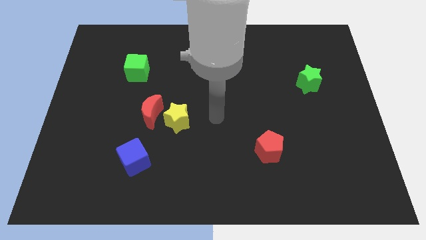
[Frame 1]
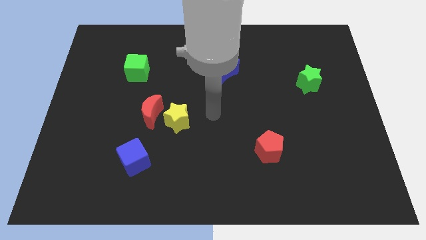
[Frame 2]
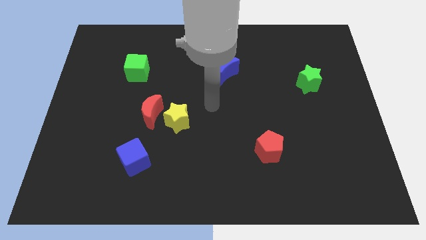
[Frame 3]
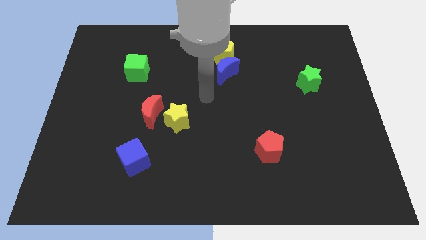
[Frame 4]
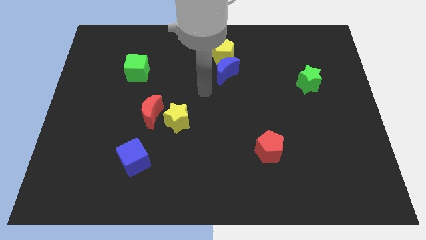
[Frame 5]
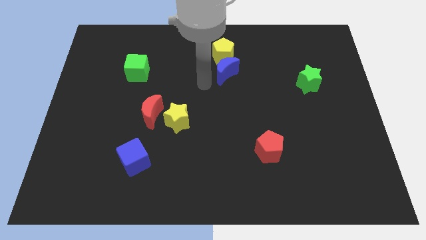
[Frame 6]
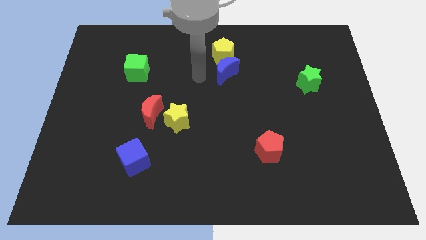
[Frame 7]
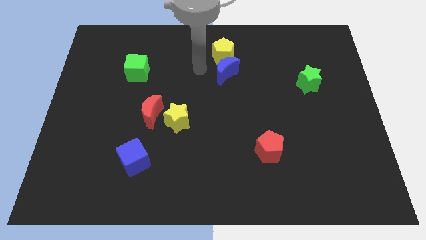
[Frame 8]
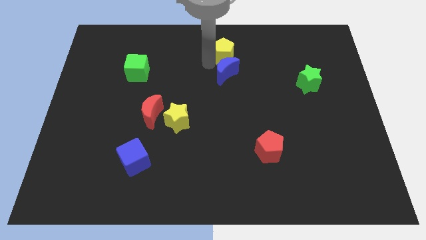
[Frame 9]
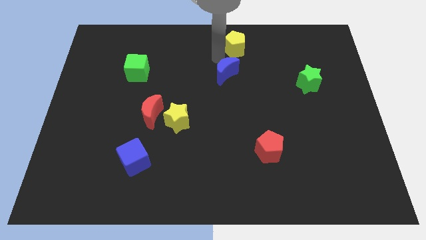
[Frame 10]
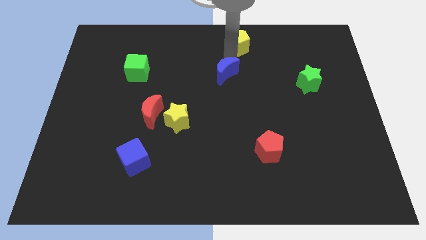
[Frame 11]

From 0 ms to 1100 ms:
separate the blue moon from the yellow pentagon

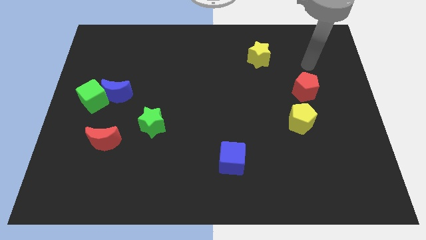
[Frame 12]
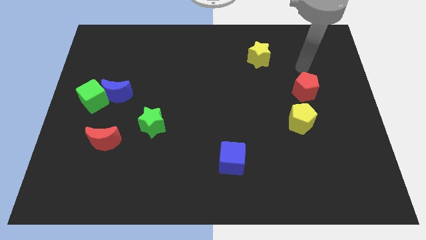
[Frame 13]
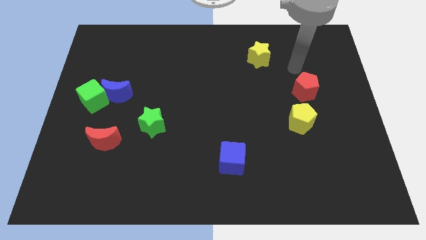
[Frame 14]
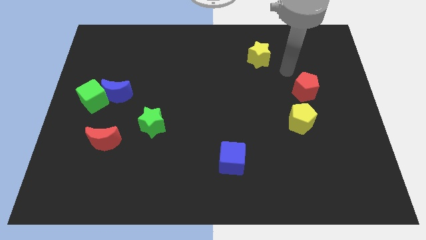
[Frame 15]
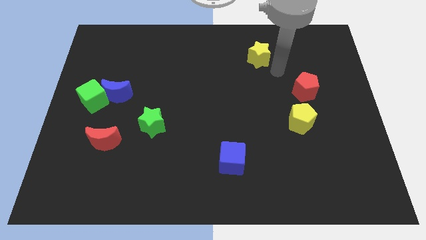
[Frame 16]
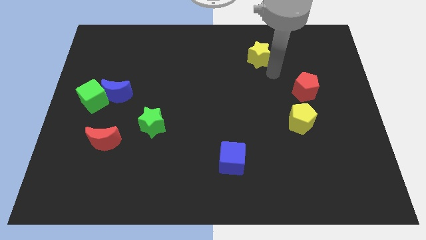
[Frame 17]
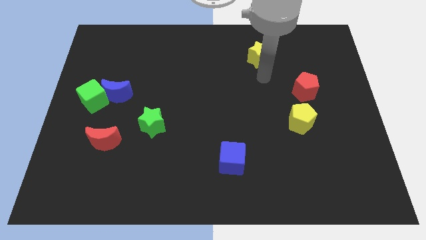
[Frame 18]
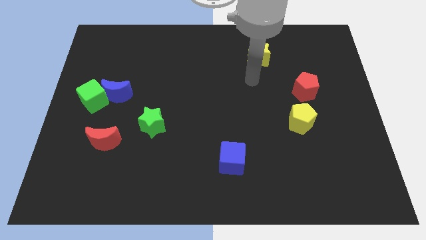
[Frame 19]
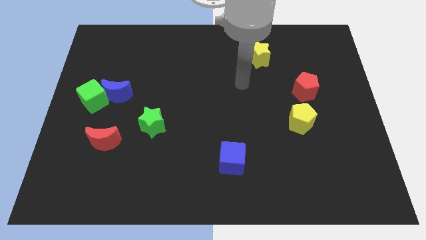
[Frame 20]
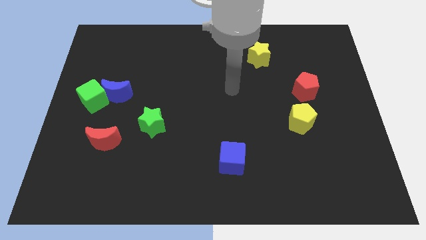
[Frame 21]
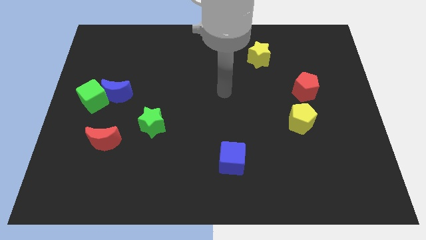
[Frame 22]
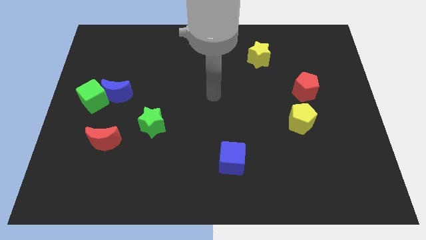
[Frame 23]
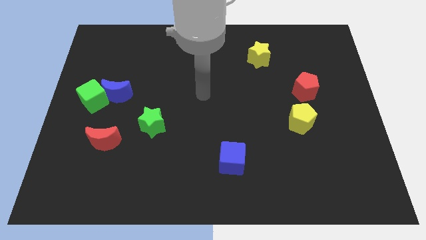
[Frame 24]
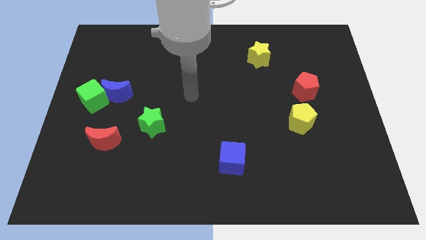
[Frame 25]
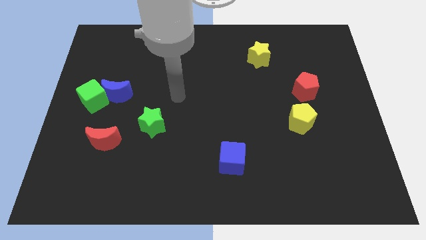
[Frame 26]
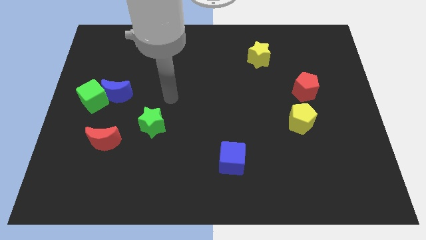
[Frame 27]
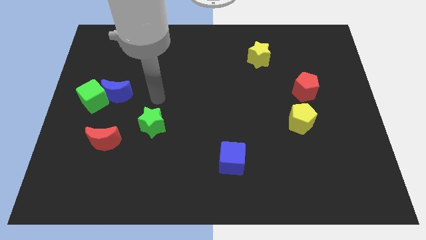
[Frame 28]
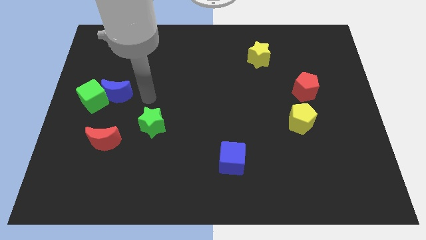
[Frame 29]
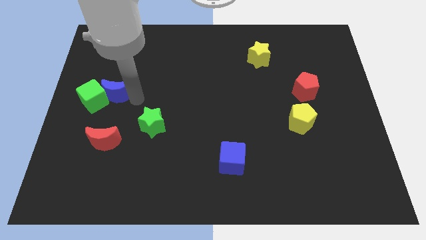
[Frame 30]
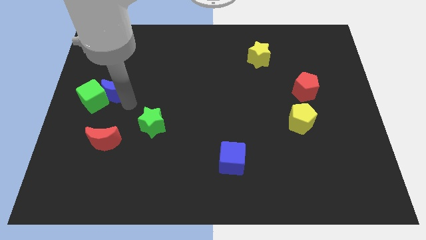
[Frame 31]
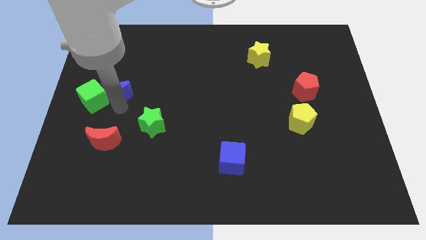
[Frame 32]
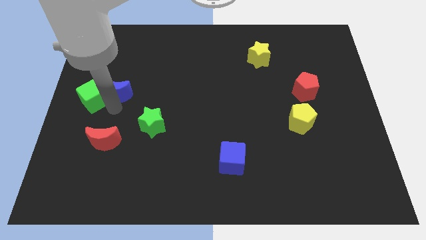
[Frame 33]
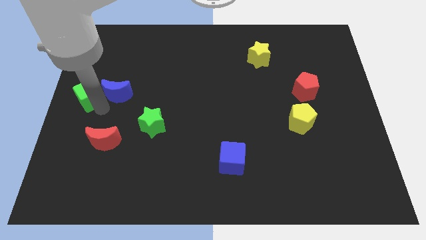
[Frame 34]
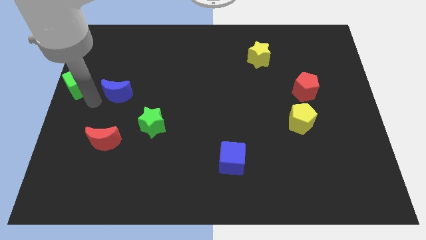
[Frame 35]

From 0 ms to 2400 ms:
pull the blue moon apart from the green cube

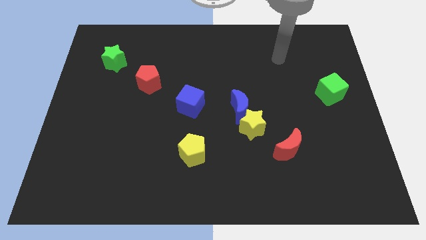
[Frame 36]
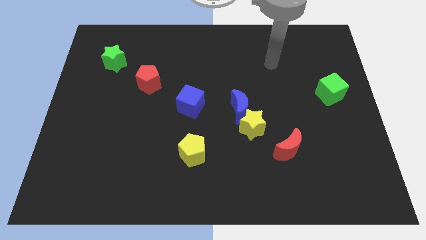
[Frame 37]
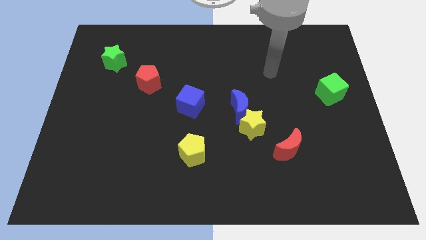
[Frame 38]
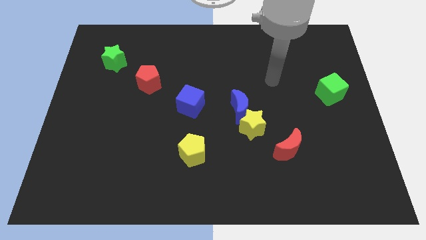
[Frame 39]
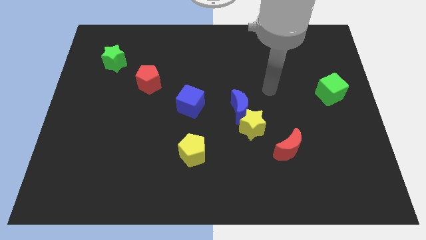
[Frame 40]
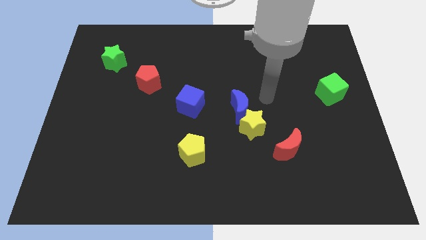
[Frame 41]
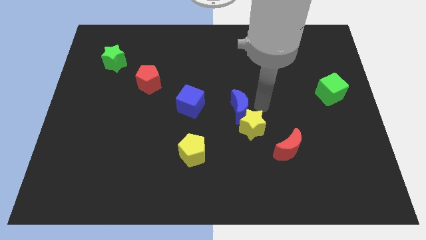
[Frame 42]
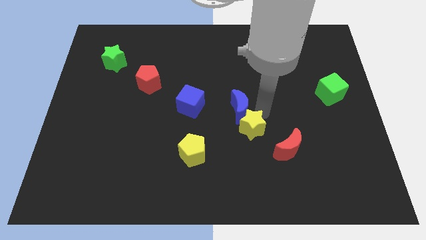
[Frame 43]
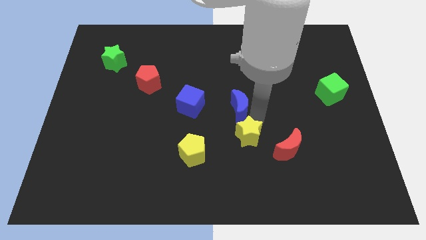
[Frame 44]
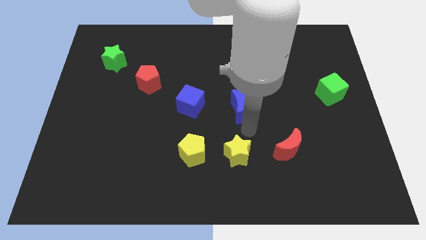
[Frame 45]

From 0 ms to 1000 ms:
move the blue moon away from the yellow star

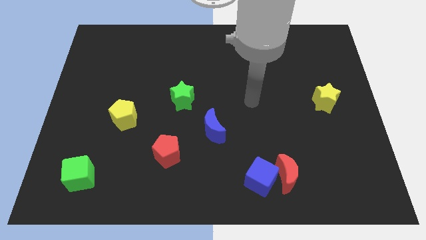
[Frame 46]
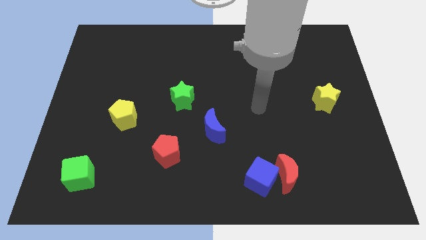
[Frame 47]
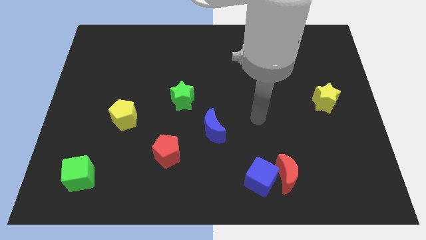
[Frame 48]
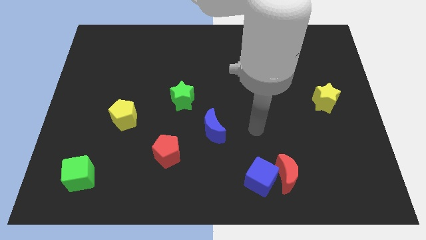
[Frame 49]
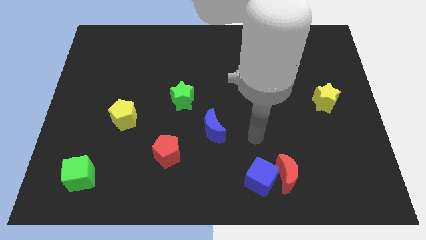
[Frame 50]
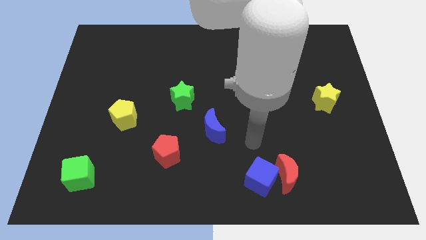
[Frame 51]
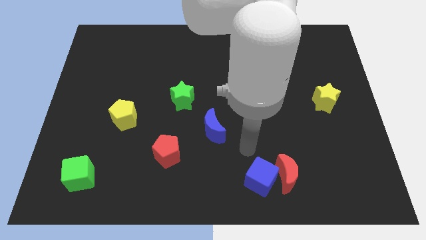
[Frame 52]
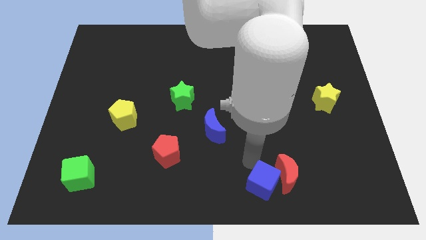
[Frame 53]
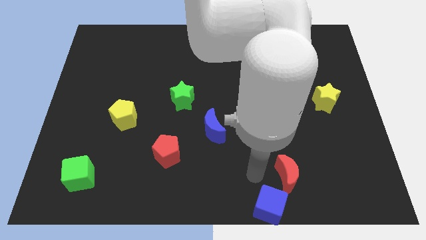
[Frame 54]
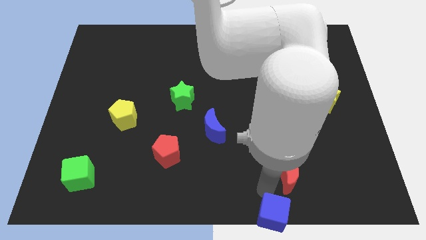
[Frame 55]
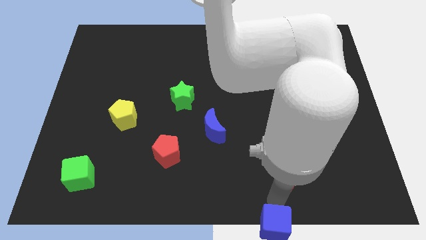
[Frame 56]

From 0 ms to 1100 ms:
pull the red moon apart from the blue cube

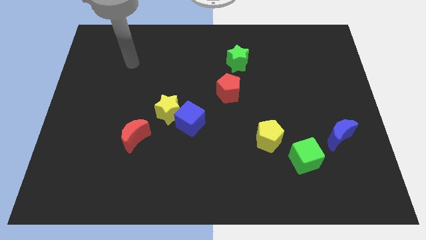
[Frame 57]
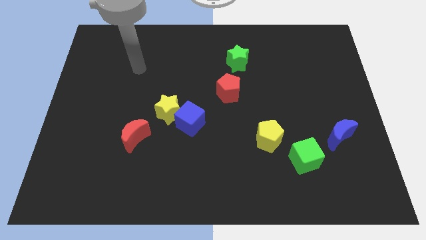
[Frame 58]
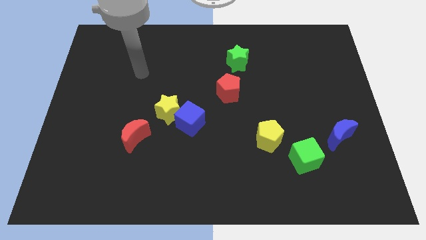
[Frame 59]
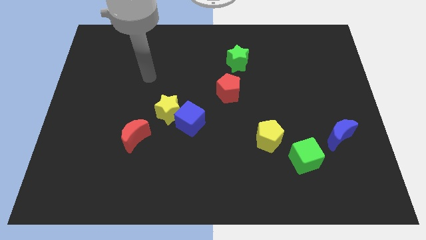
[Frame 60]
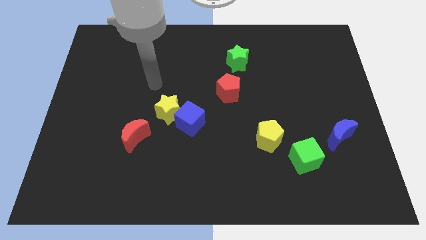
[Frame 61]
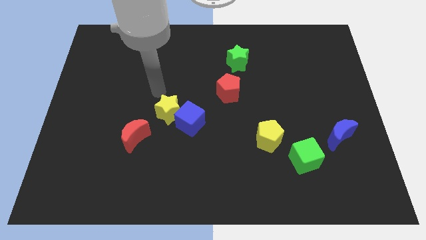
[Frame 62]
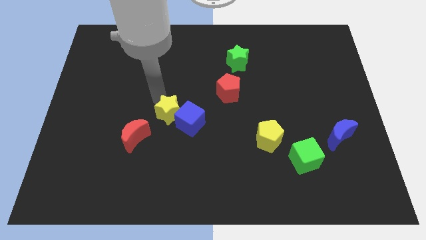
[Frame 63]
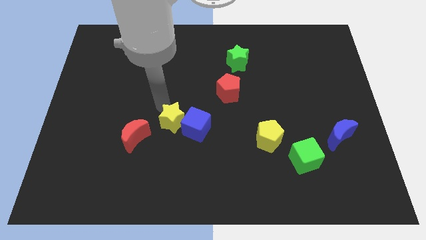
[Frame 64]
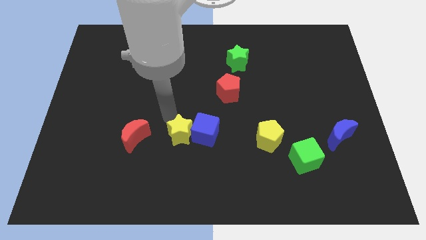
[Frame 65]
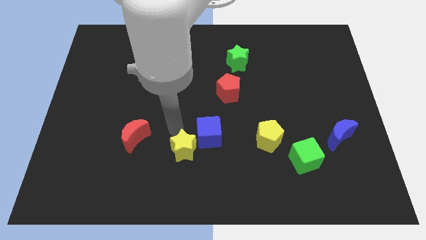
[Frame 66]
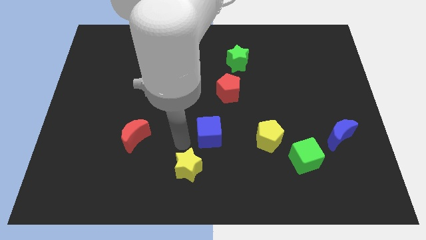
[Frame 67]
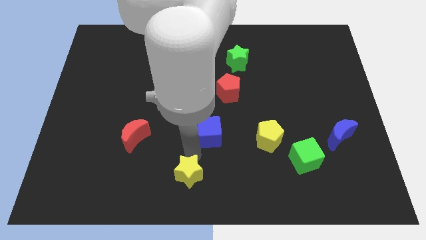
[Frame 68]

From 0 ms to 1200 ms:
move the blue cube away from the yellow star

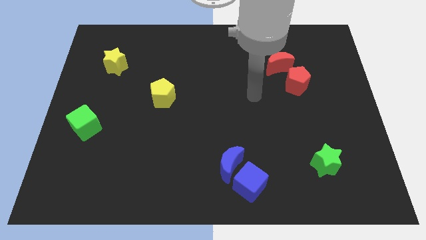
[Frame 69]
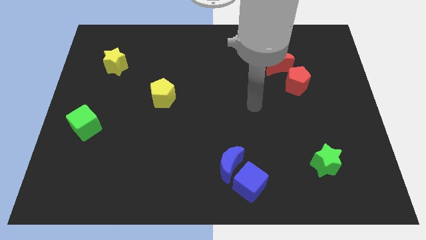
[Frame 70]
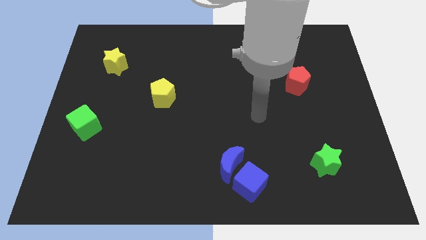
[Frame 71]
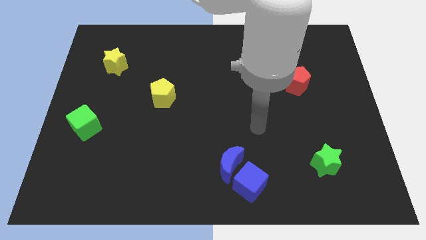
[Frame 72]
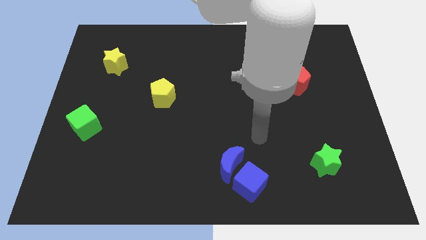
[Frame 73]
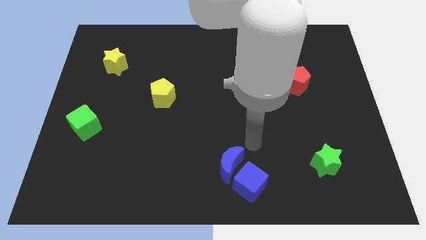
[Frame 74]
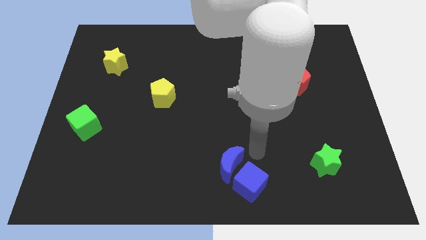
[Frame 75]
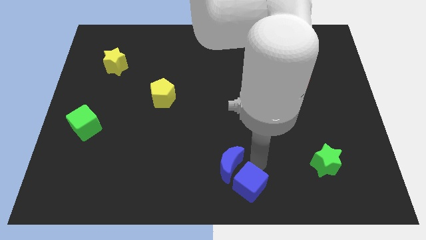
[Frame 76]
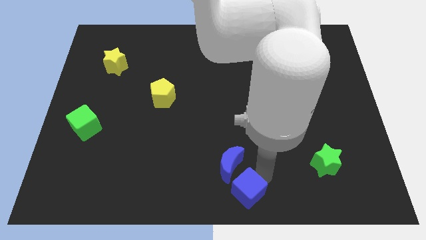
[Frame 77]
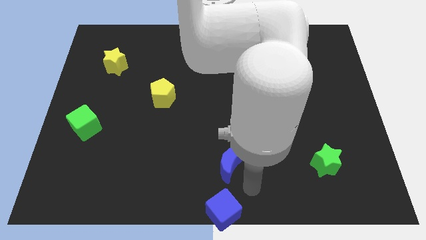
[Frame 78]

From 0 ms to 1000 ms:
move the blue moon away from the blue cube

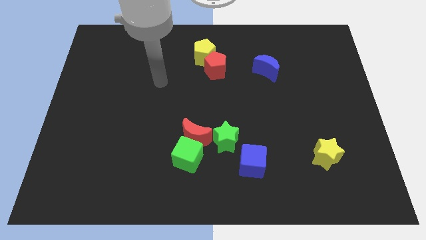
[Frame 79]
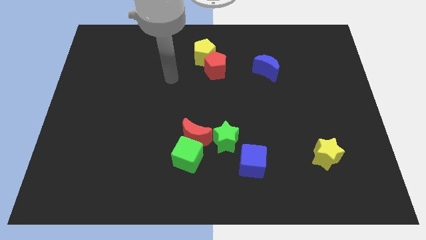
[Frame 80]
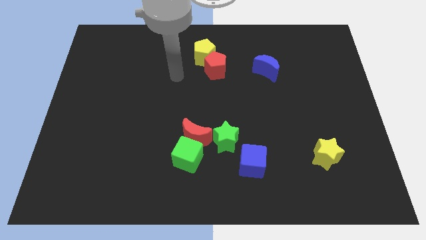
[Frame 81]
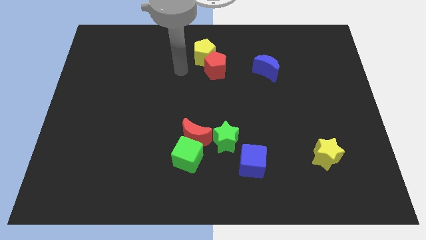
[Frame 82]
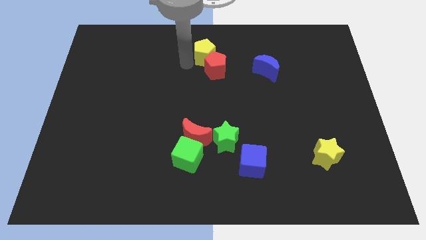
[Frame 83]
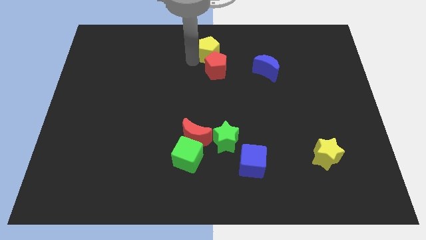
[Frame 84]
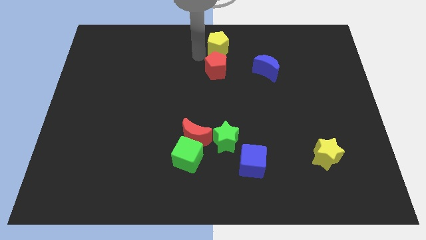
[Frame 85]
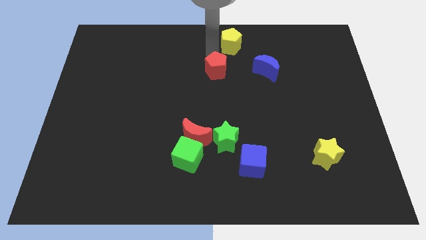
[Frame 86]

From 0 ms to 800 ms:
separate the red pentagon from the yellow pentagon

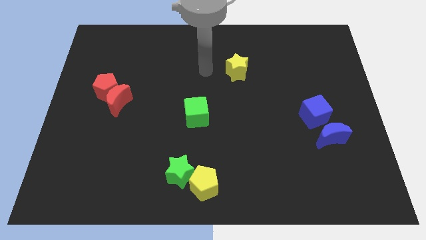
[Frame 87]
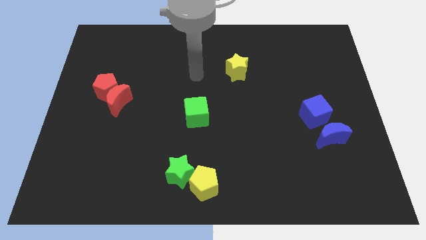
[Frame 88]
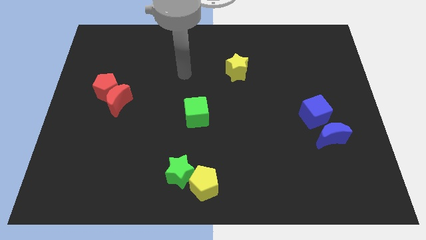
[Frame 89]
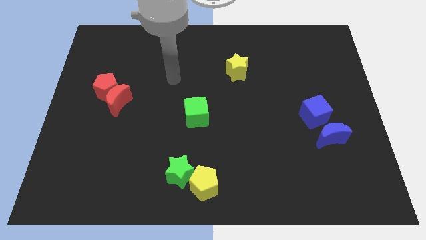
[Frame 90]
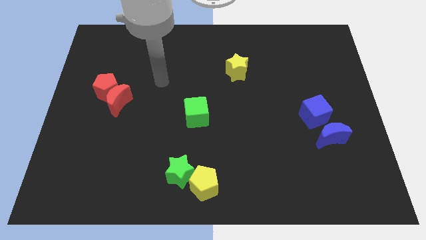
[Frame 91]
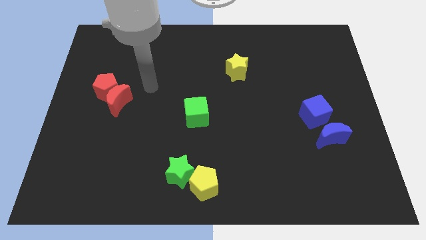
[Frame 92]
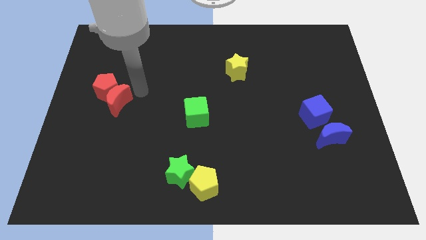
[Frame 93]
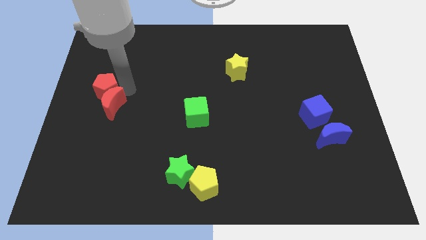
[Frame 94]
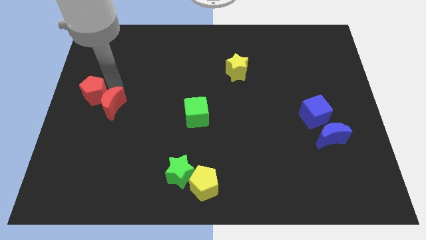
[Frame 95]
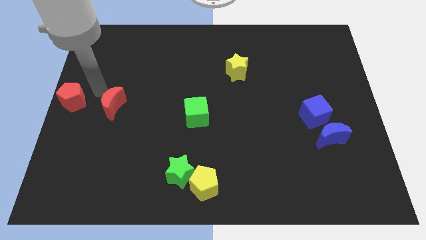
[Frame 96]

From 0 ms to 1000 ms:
separate the red moon from the red pentagon
